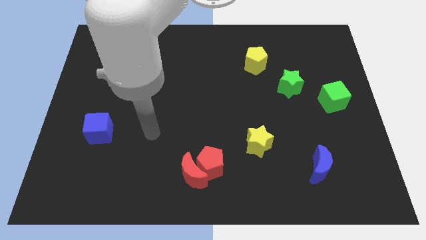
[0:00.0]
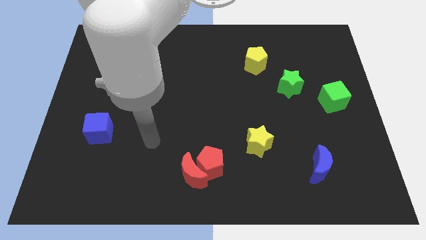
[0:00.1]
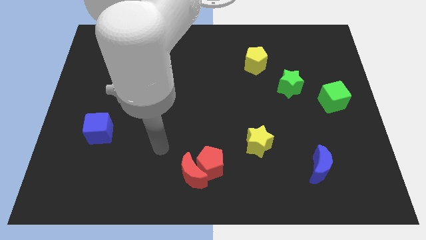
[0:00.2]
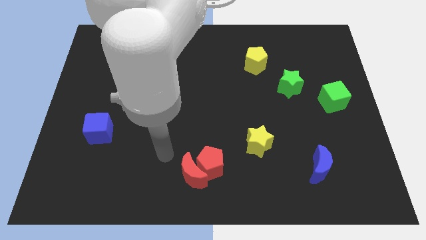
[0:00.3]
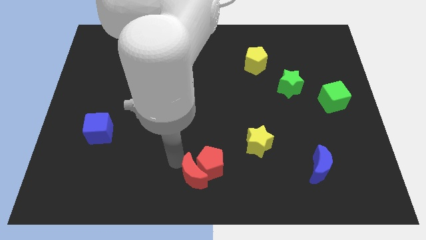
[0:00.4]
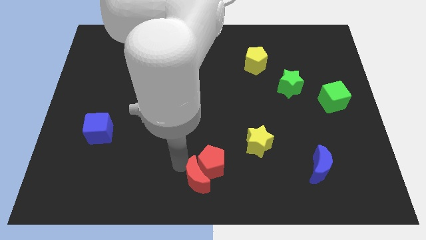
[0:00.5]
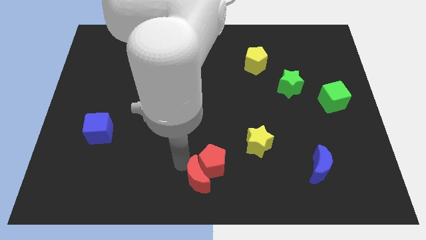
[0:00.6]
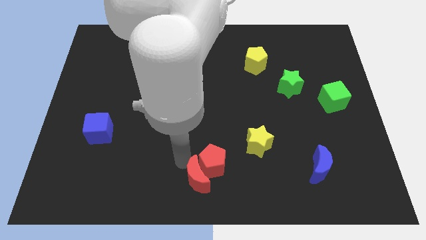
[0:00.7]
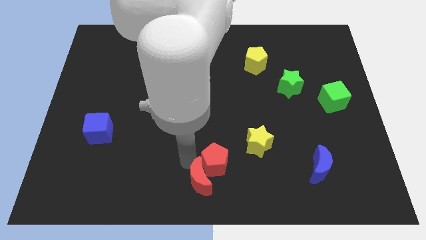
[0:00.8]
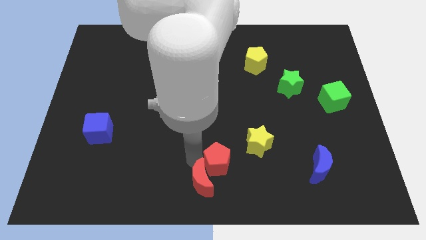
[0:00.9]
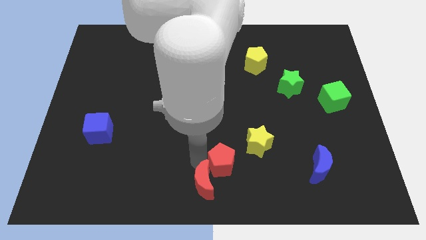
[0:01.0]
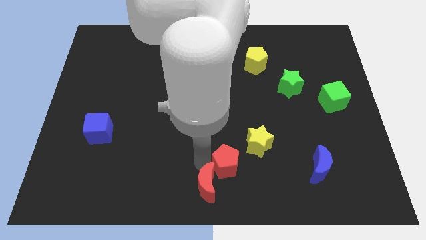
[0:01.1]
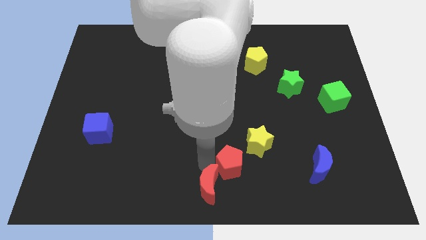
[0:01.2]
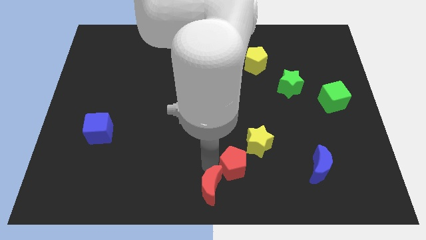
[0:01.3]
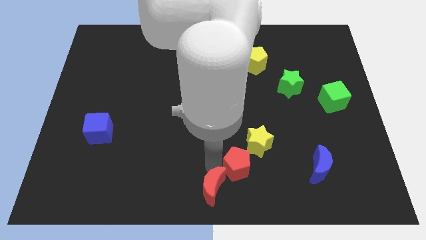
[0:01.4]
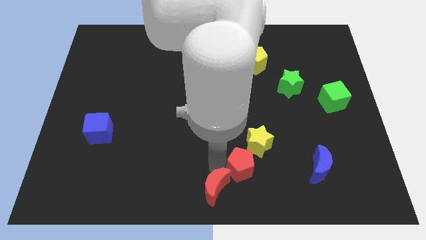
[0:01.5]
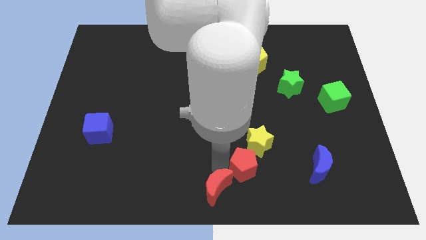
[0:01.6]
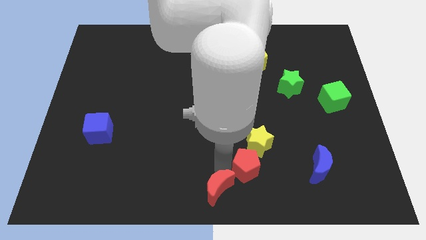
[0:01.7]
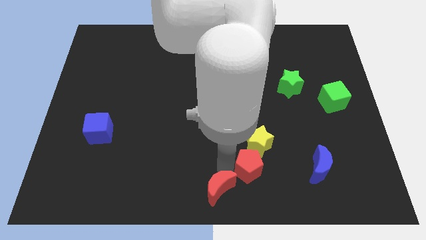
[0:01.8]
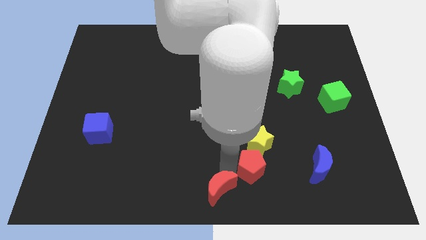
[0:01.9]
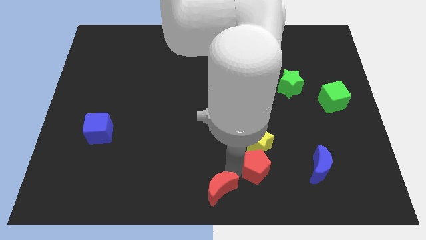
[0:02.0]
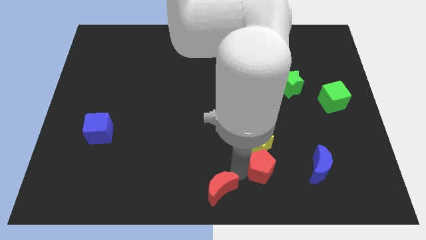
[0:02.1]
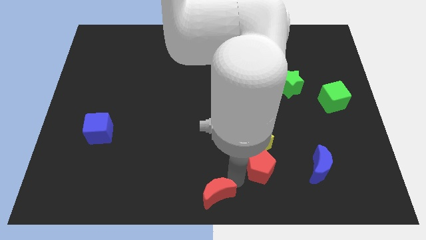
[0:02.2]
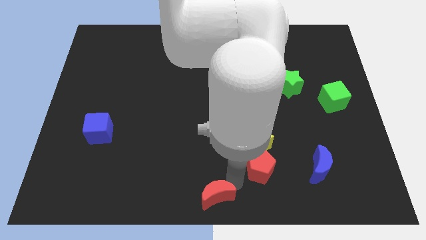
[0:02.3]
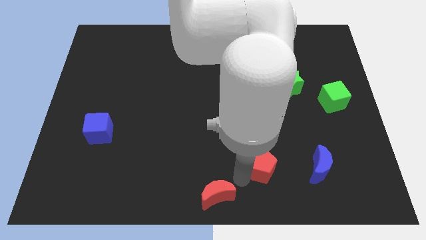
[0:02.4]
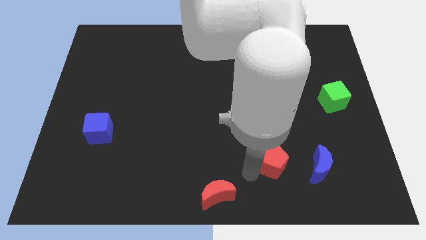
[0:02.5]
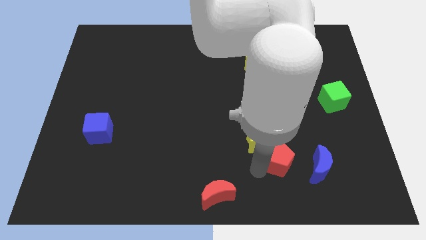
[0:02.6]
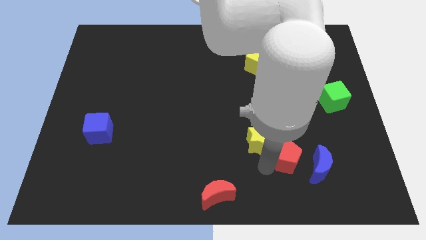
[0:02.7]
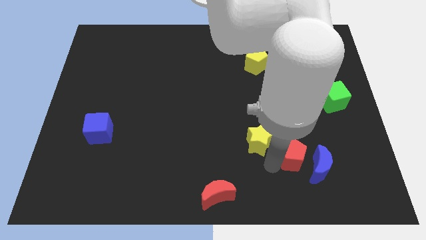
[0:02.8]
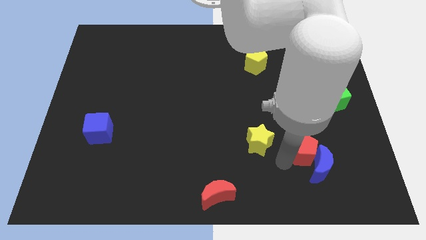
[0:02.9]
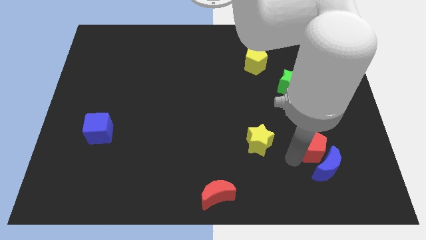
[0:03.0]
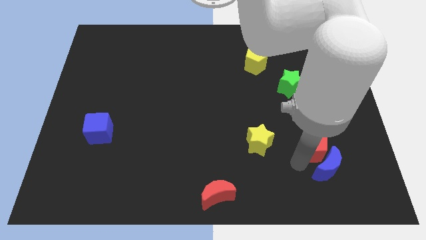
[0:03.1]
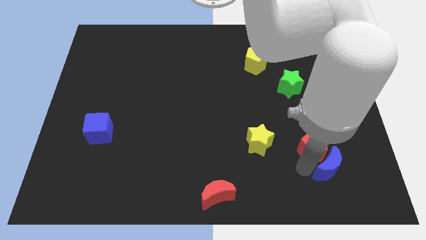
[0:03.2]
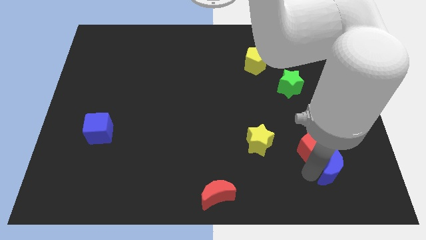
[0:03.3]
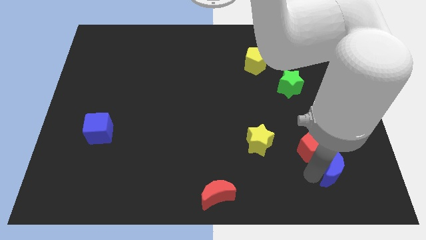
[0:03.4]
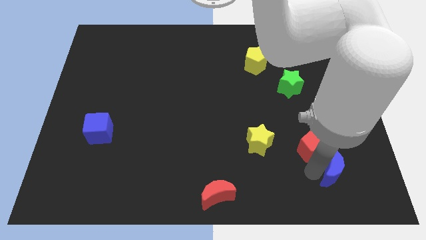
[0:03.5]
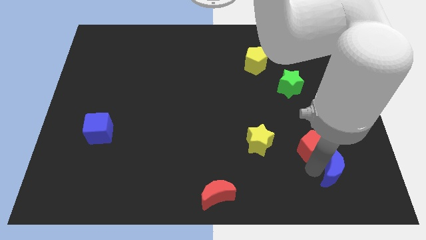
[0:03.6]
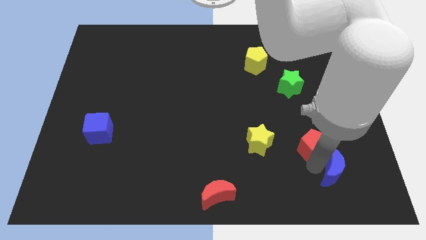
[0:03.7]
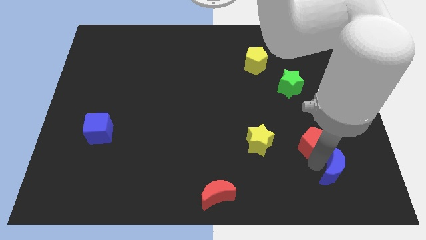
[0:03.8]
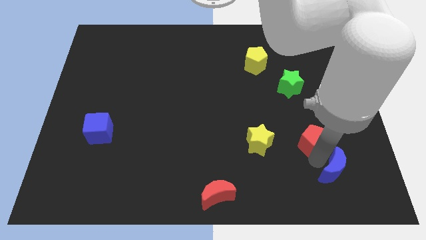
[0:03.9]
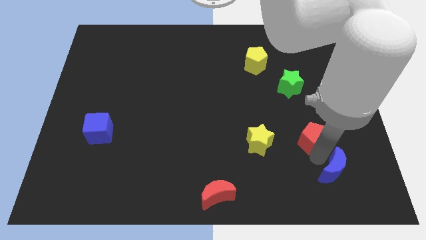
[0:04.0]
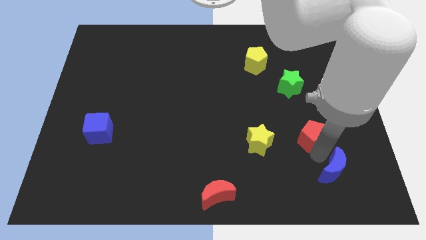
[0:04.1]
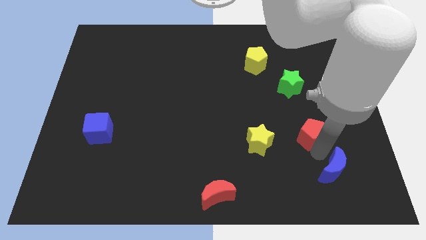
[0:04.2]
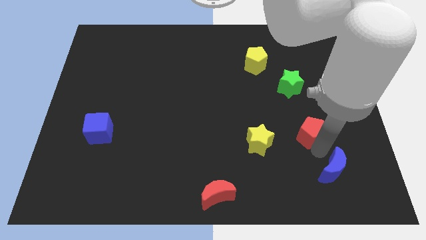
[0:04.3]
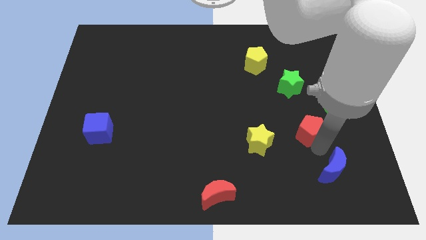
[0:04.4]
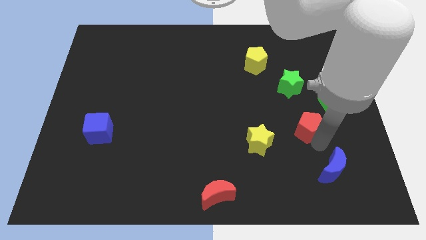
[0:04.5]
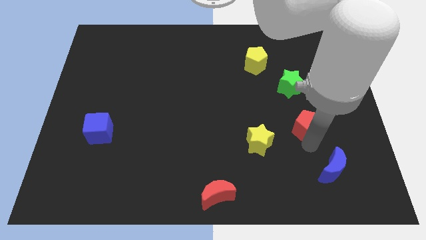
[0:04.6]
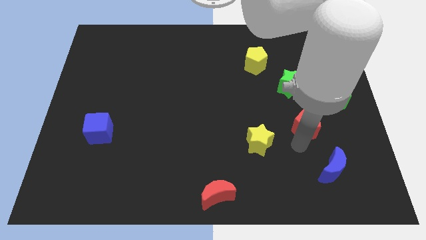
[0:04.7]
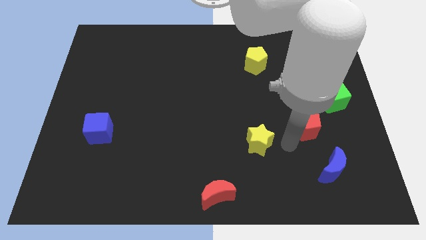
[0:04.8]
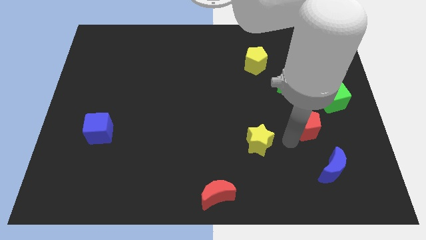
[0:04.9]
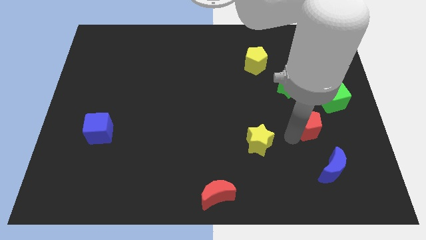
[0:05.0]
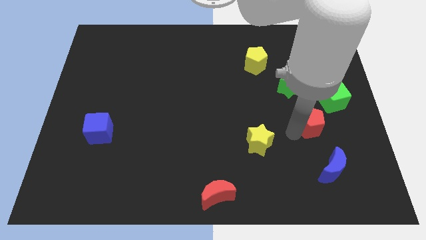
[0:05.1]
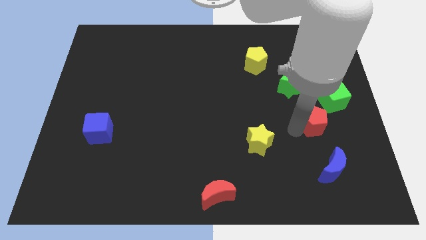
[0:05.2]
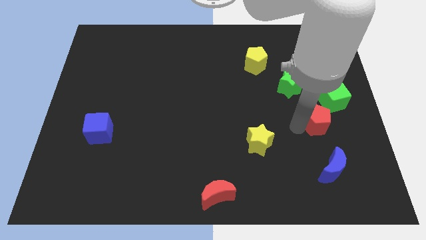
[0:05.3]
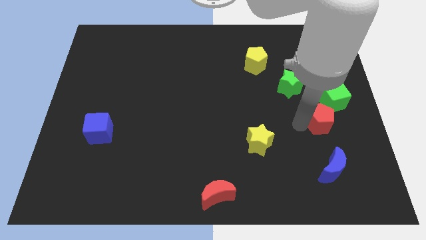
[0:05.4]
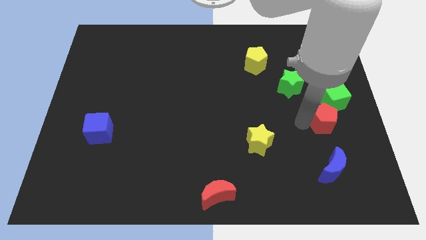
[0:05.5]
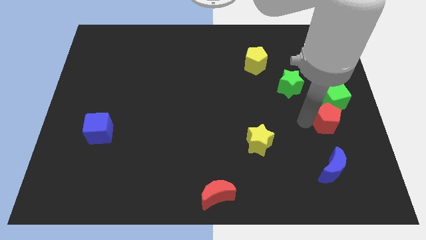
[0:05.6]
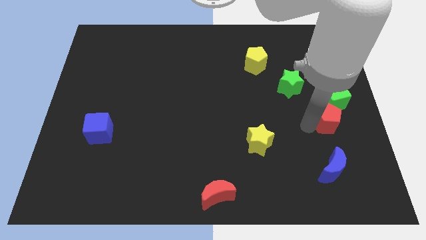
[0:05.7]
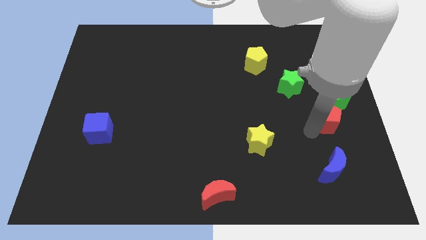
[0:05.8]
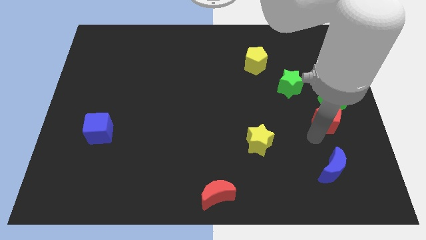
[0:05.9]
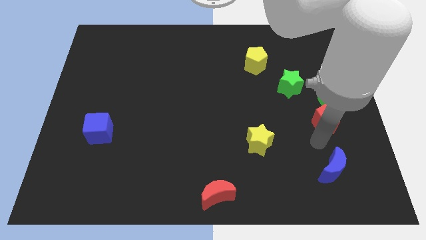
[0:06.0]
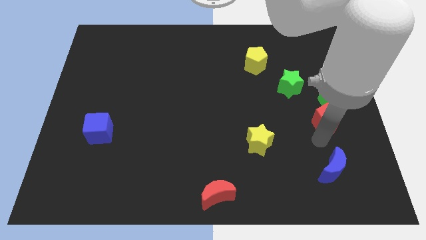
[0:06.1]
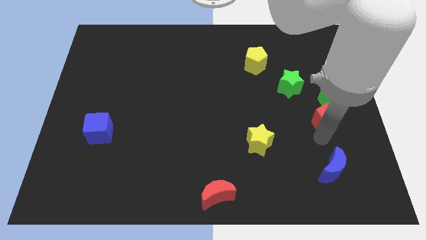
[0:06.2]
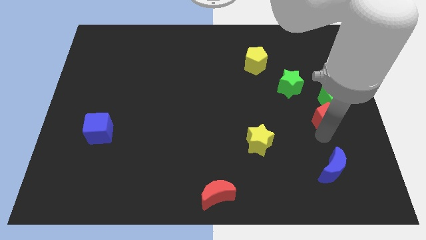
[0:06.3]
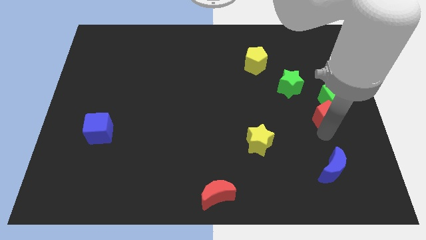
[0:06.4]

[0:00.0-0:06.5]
move the red pentagon next to the green cube

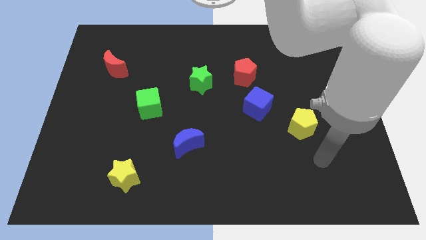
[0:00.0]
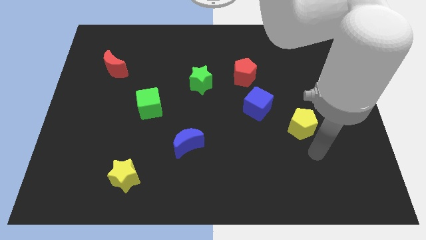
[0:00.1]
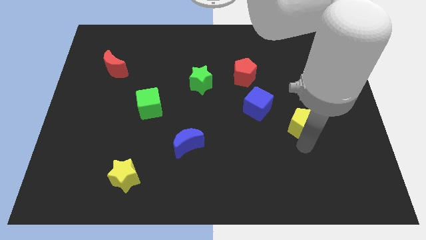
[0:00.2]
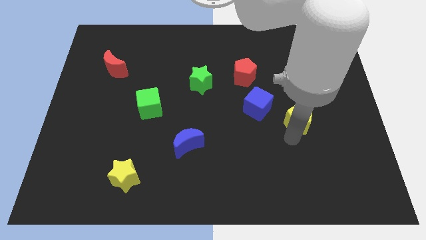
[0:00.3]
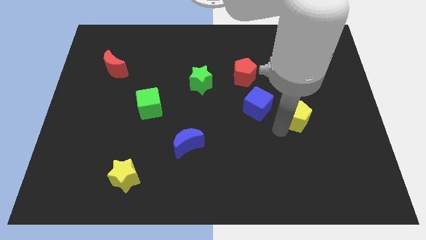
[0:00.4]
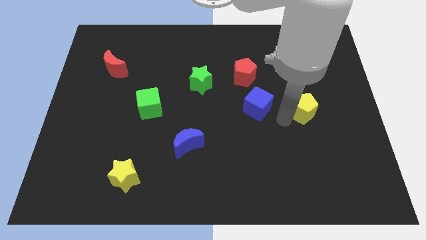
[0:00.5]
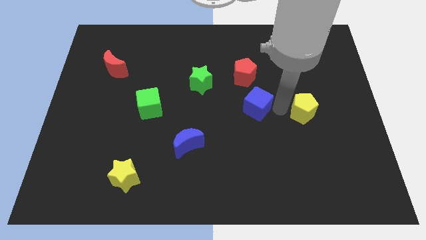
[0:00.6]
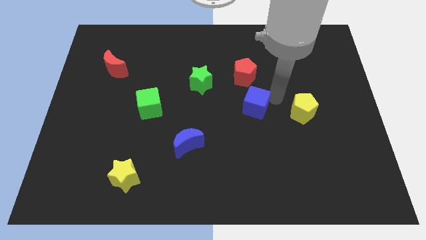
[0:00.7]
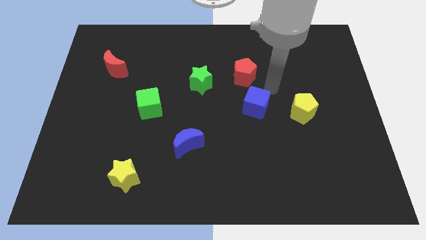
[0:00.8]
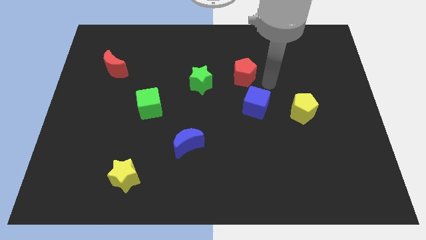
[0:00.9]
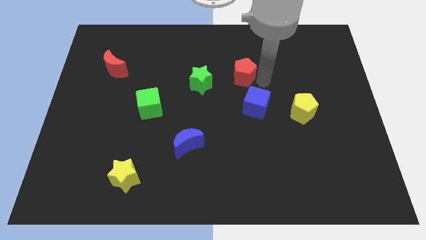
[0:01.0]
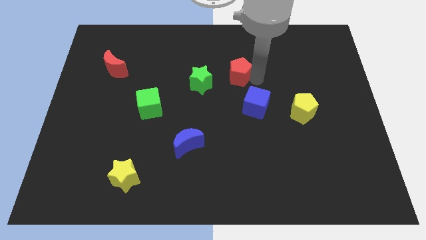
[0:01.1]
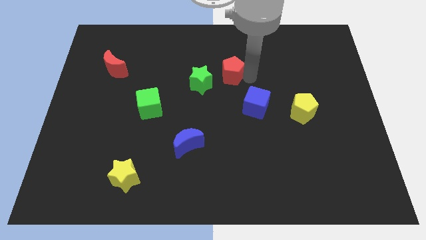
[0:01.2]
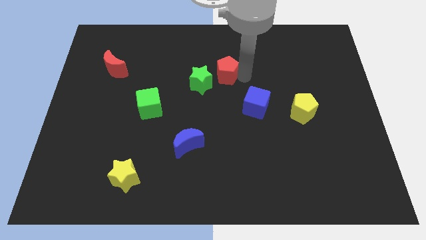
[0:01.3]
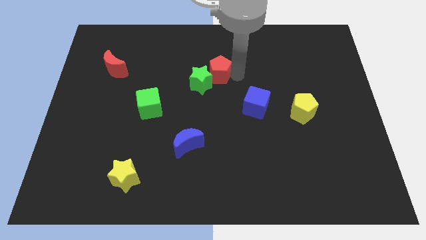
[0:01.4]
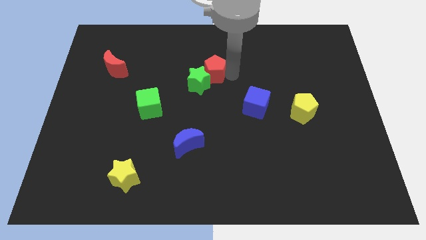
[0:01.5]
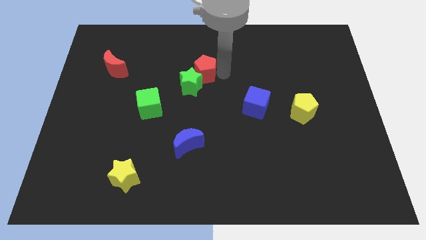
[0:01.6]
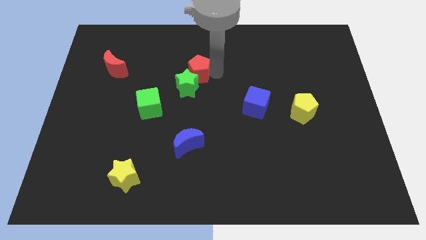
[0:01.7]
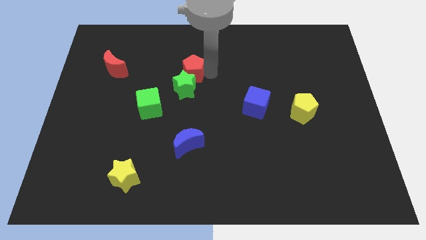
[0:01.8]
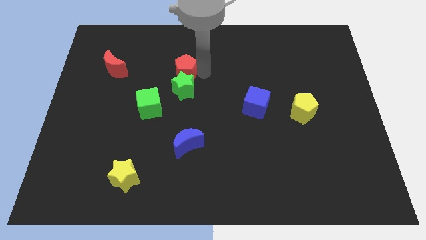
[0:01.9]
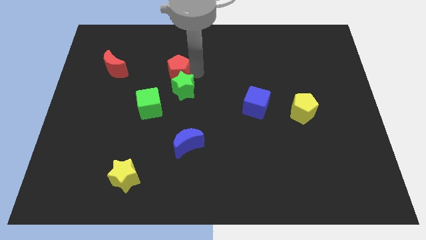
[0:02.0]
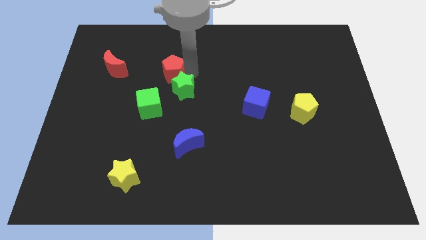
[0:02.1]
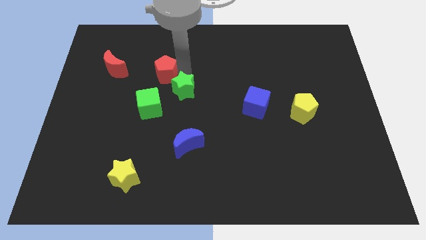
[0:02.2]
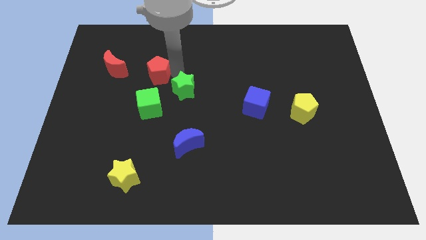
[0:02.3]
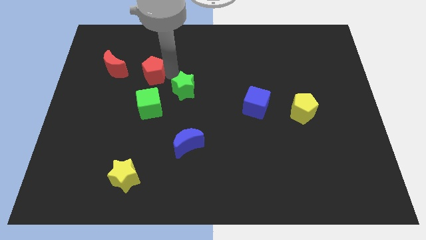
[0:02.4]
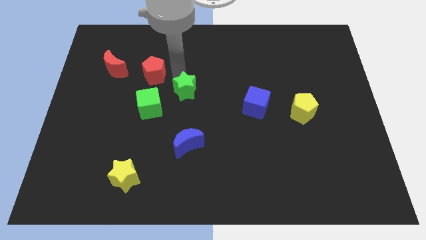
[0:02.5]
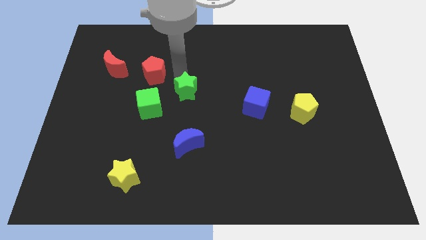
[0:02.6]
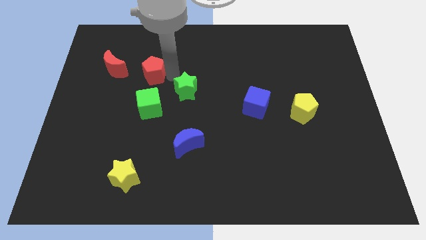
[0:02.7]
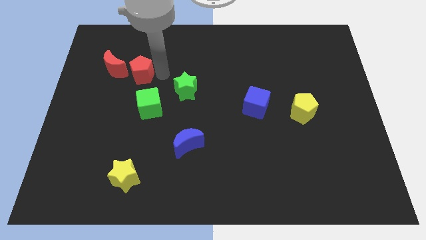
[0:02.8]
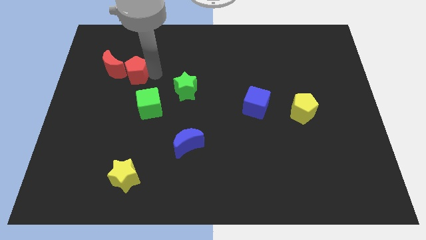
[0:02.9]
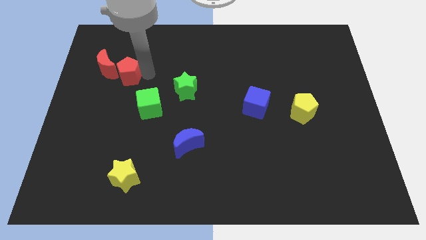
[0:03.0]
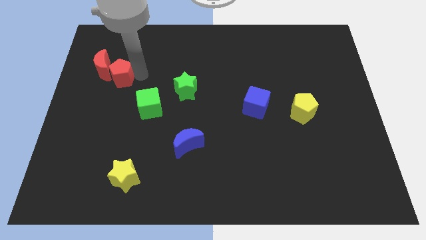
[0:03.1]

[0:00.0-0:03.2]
push the red pentagon close to the red moon
